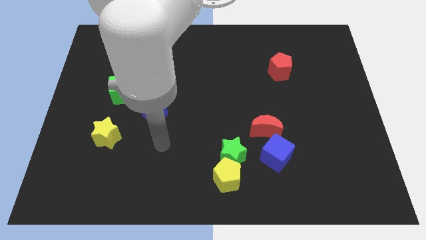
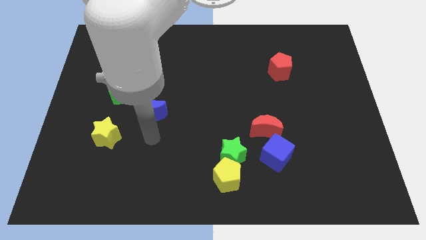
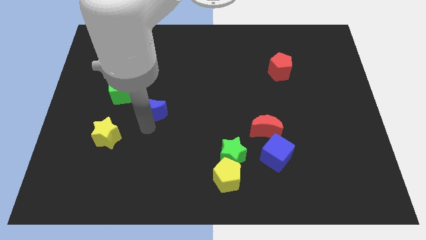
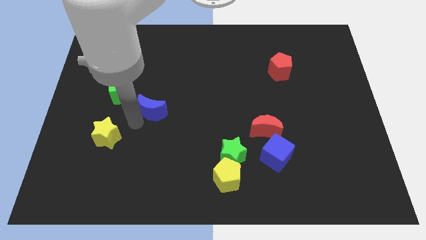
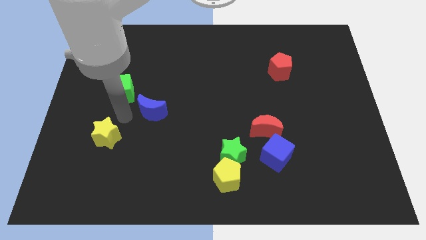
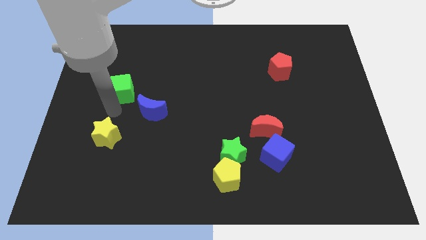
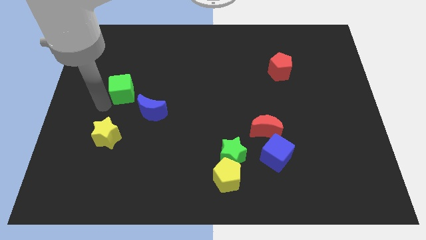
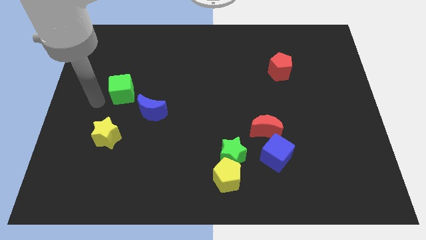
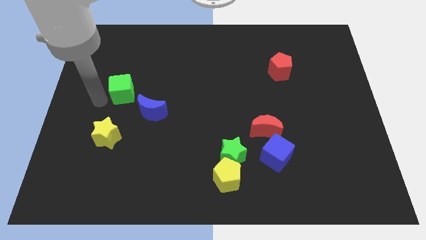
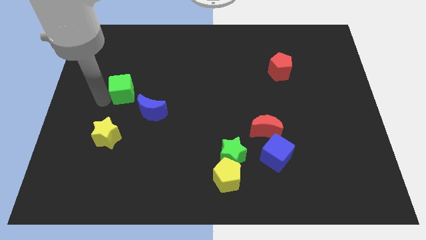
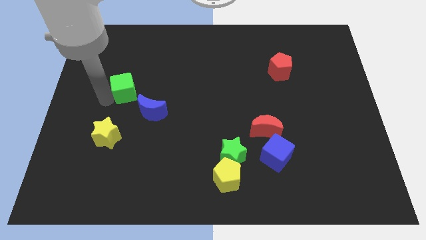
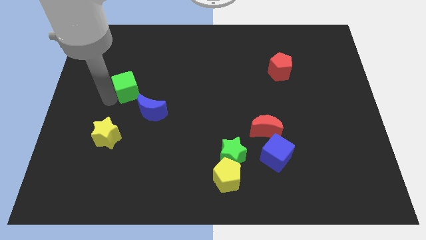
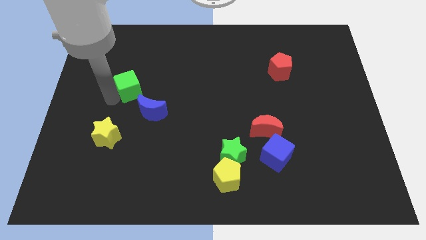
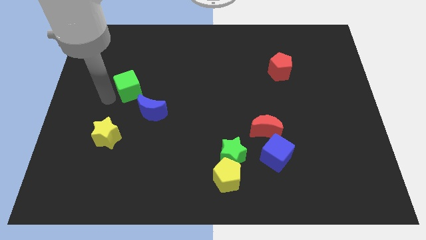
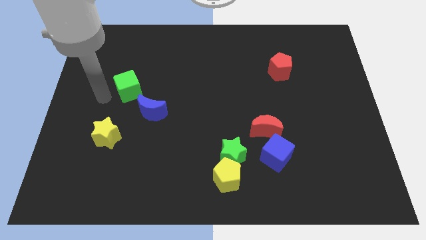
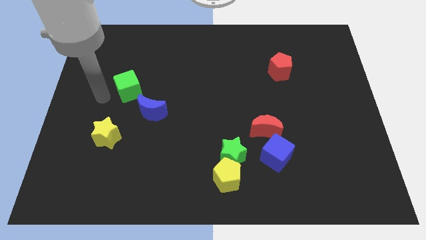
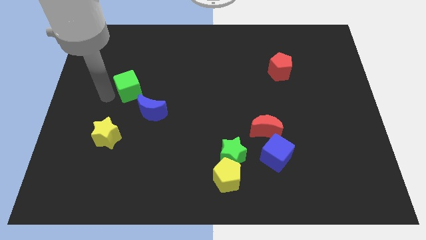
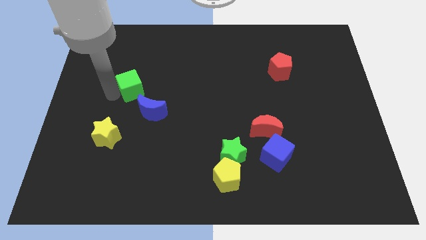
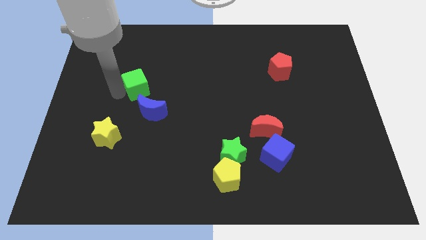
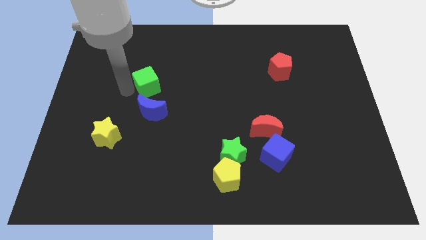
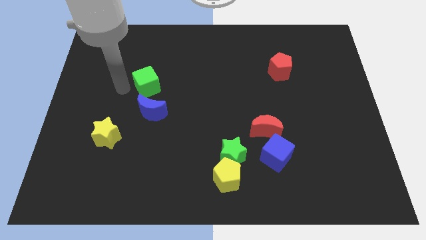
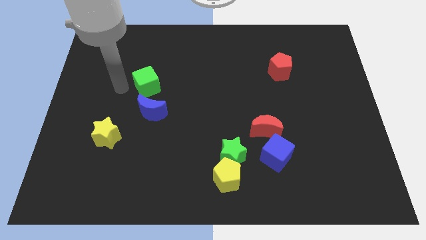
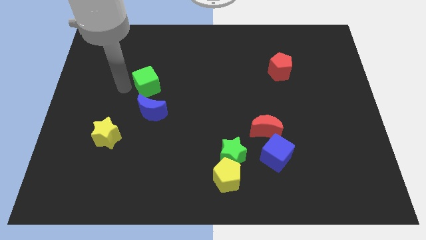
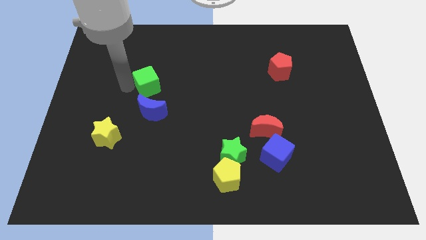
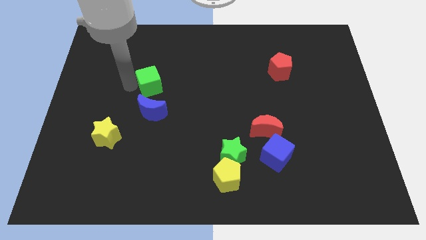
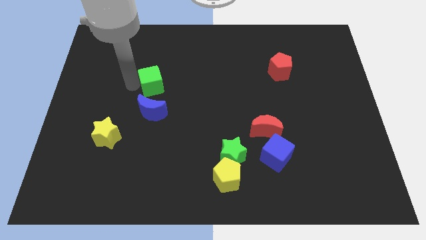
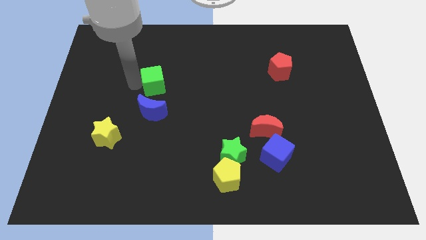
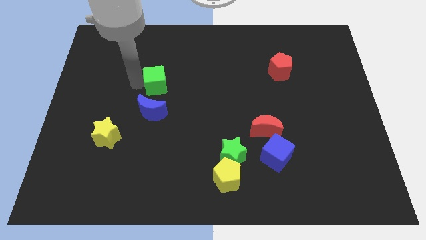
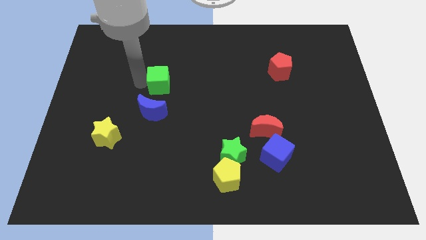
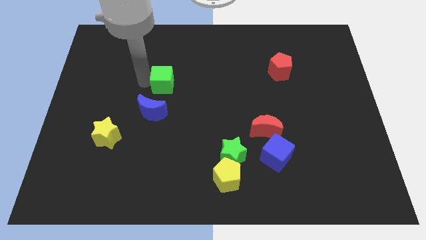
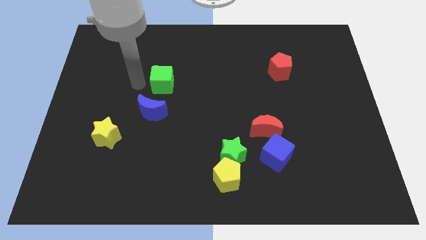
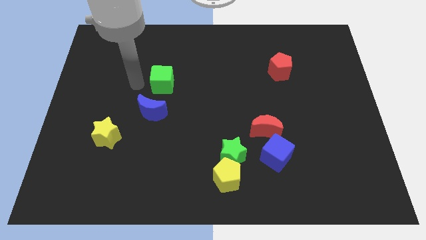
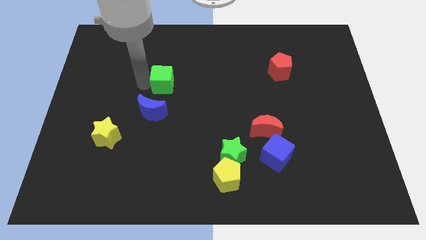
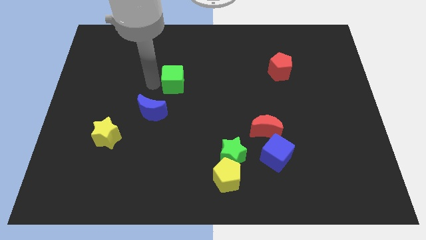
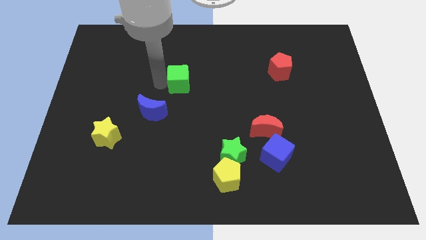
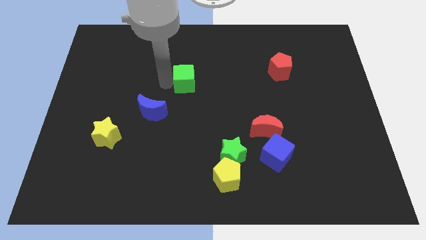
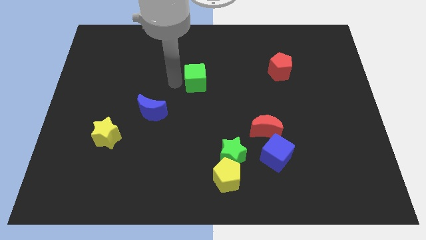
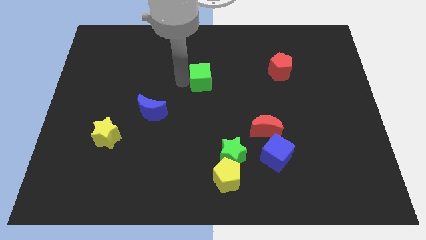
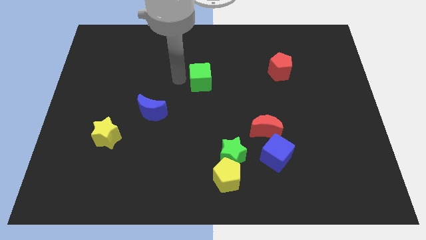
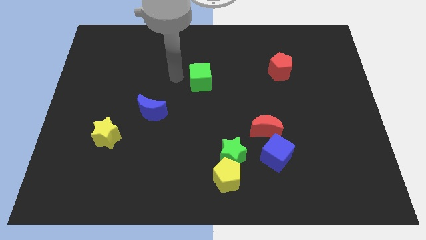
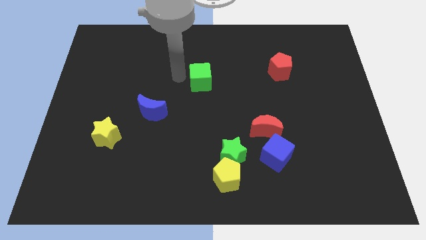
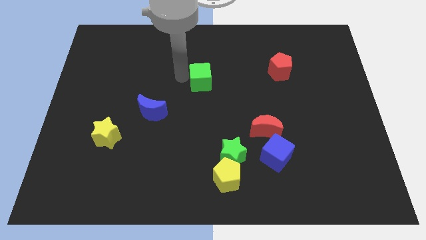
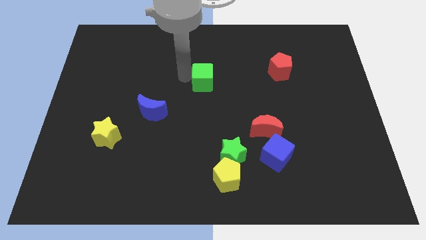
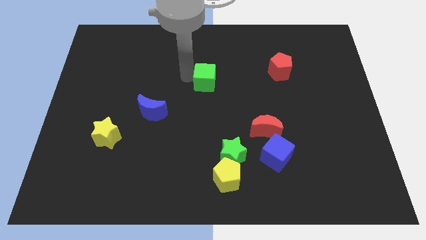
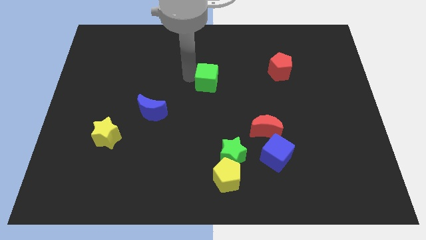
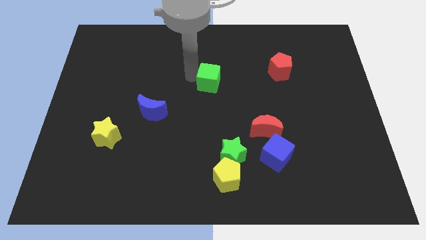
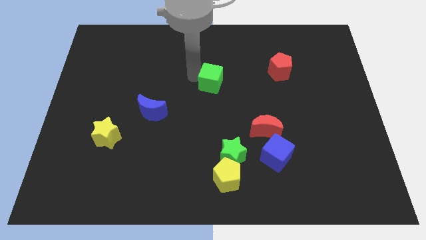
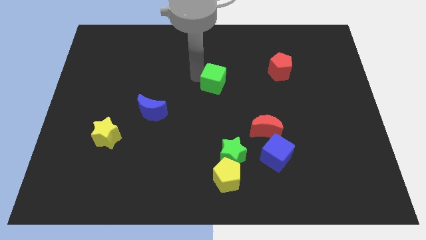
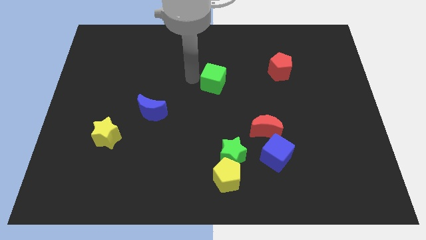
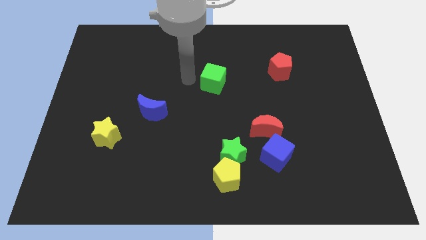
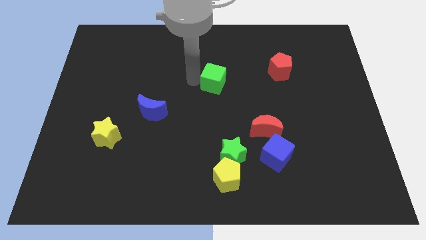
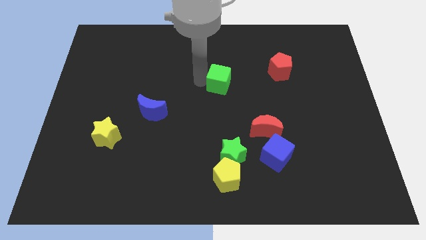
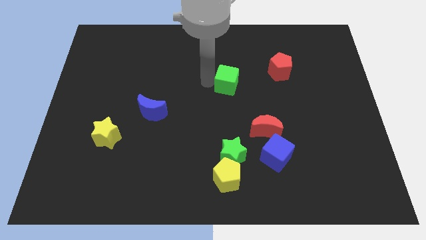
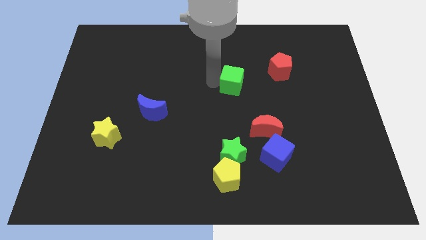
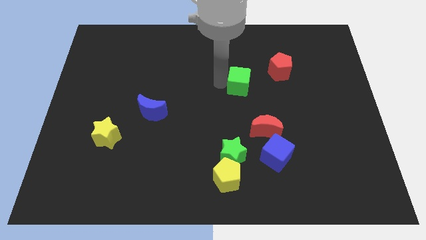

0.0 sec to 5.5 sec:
move the green cube to the bottom left of the red pentagon

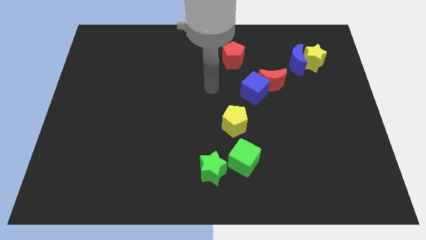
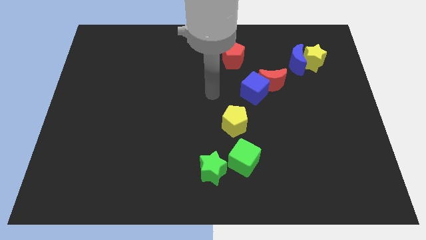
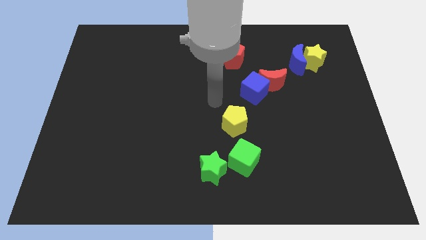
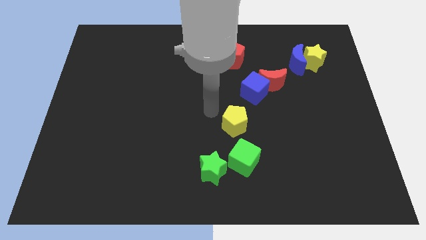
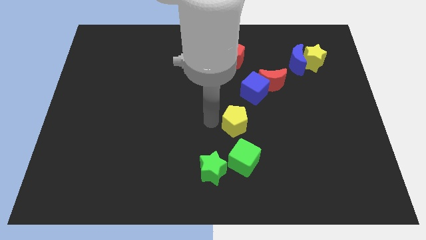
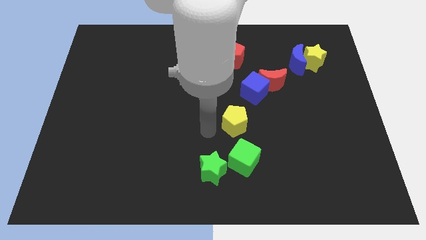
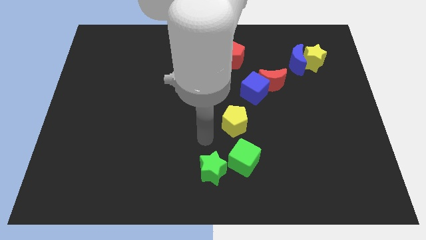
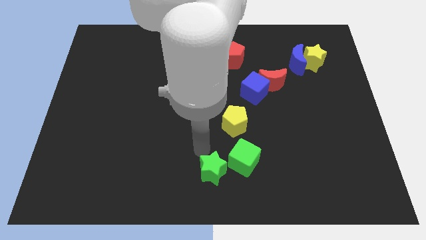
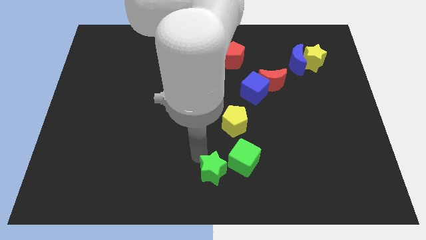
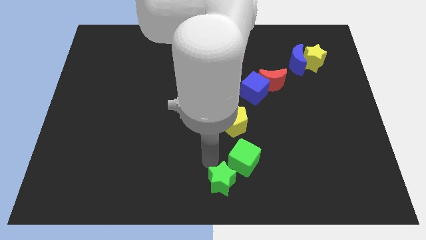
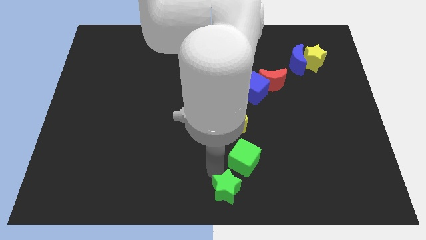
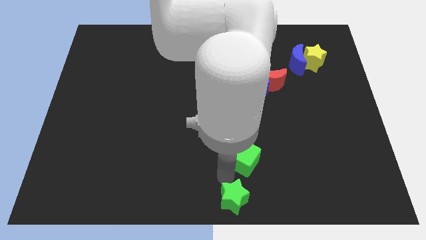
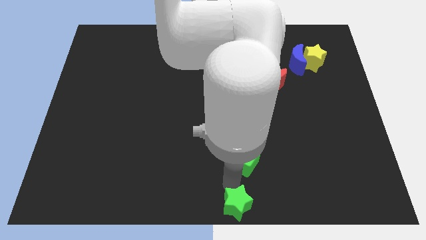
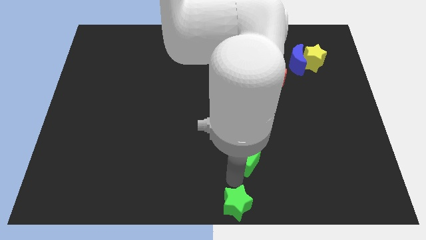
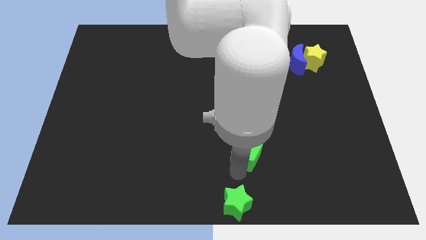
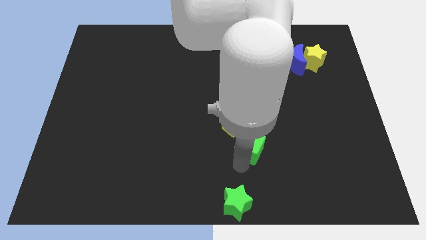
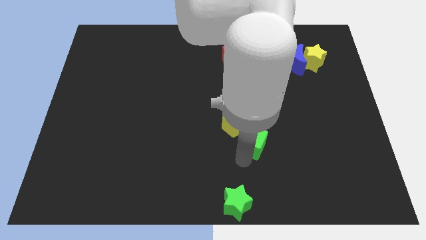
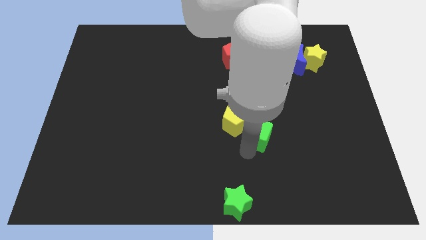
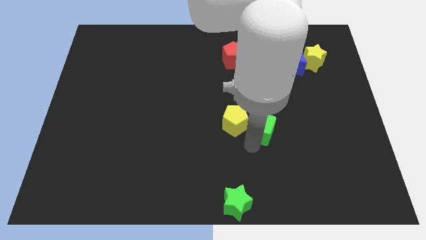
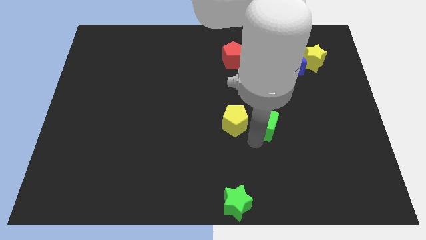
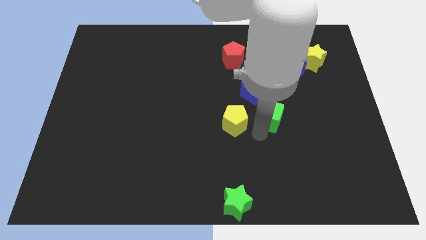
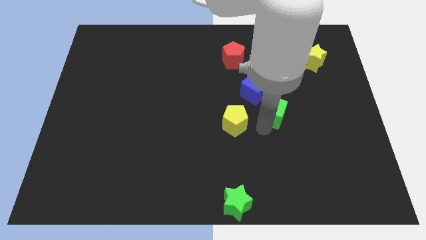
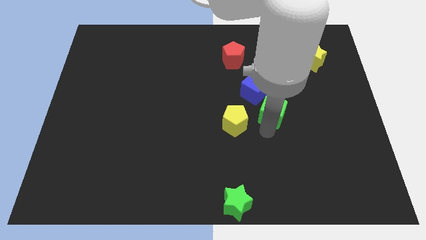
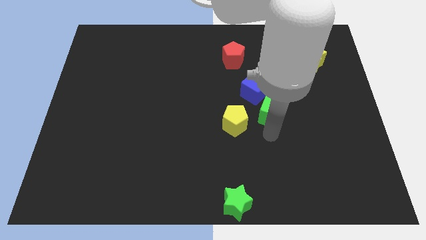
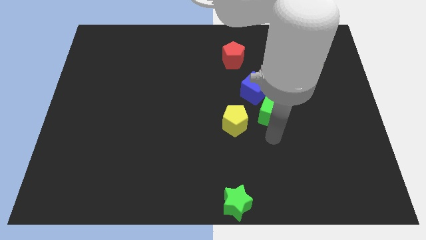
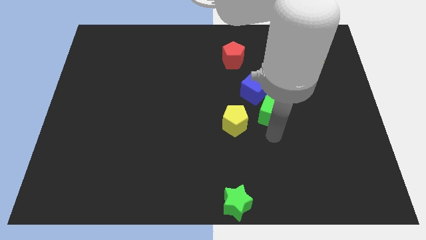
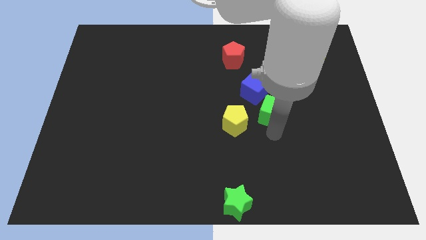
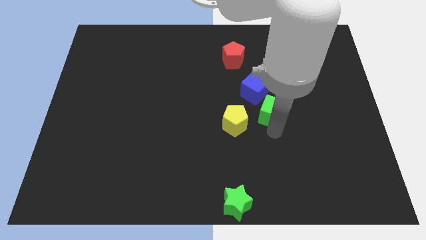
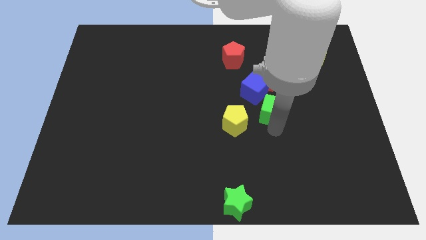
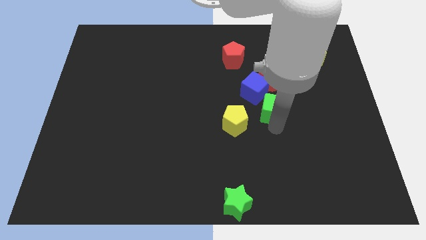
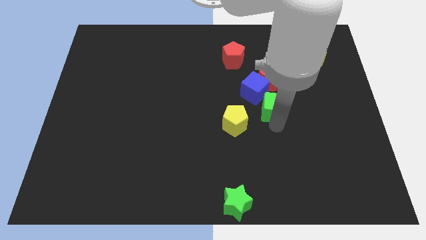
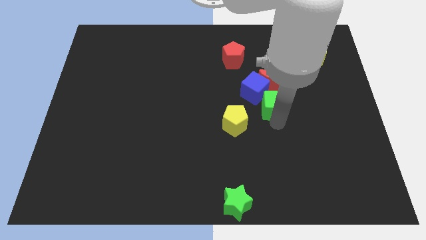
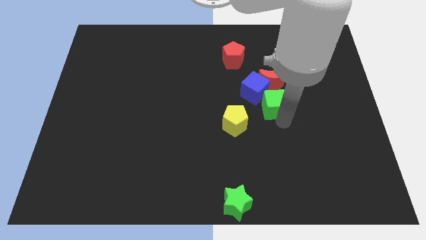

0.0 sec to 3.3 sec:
push the green cube to the bottom left side of the red moon
